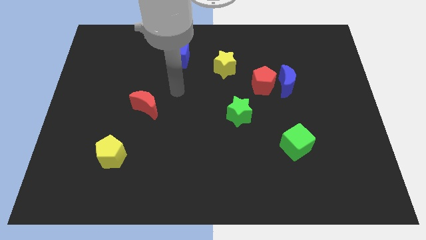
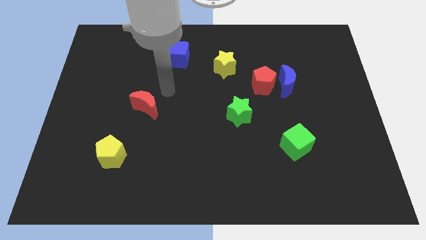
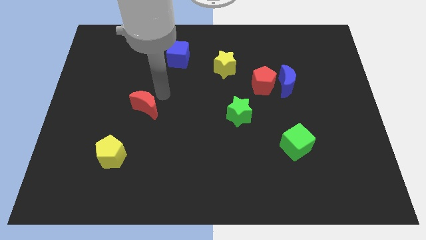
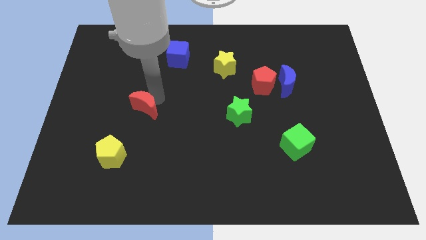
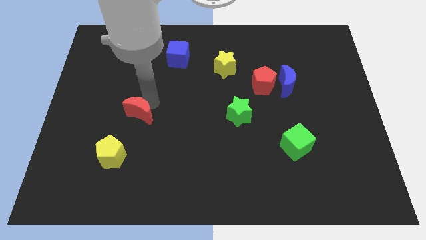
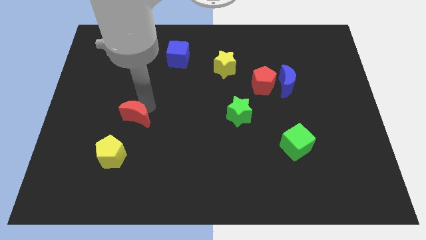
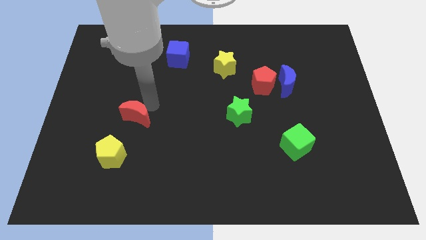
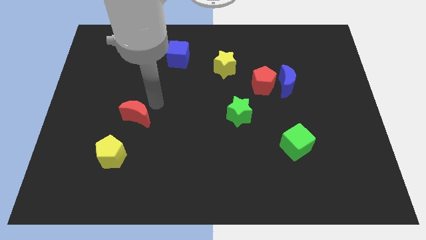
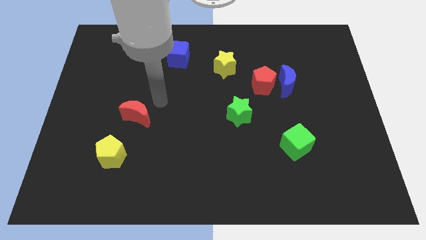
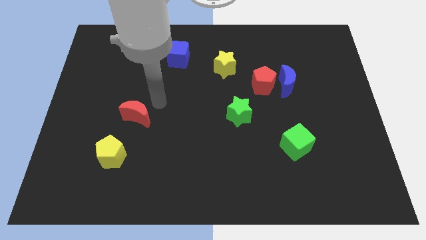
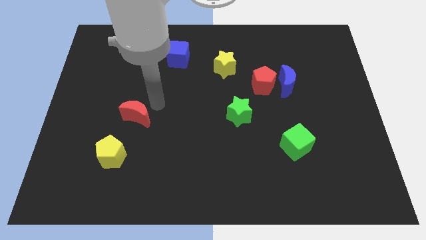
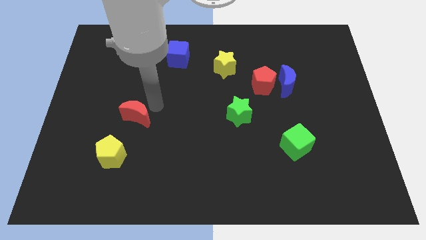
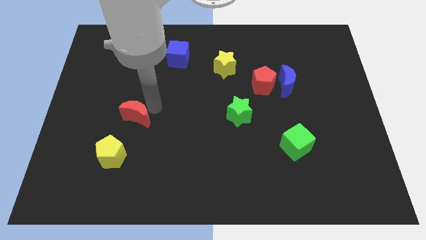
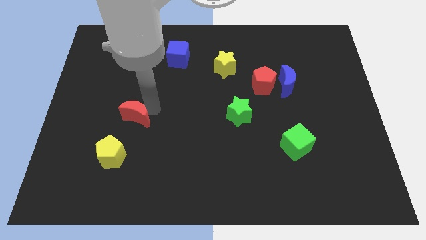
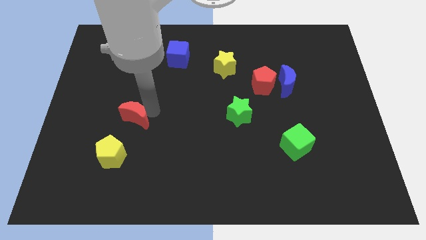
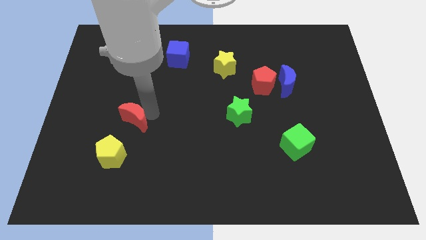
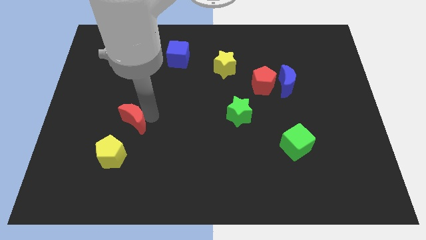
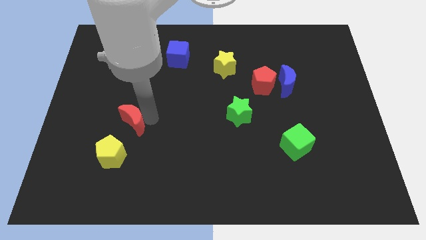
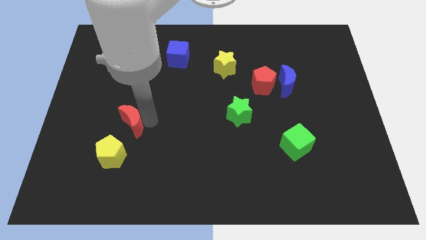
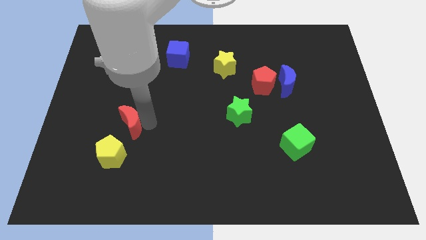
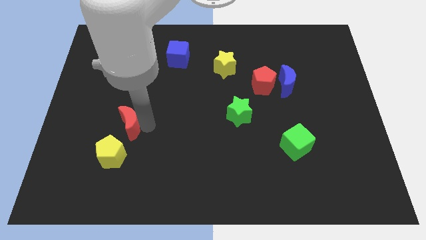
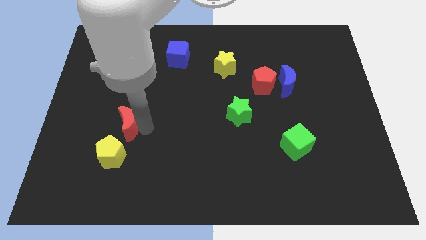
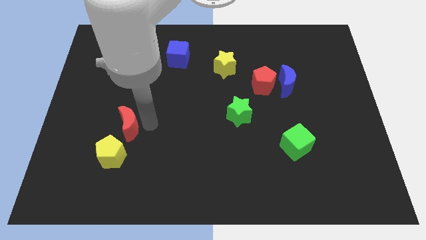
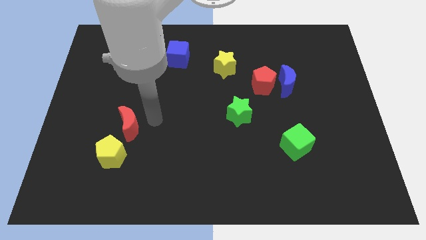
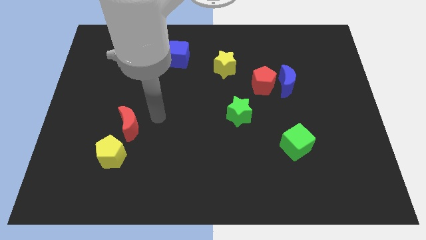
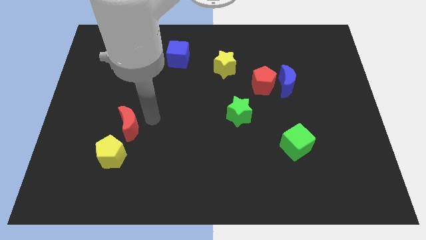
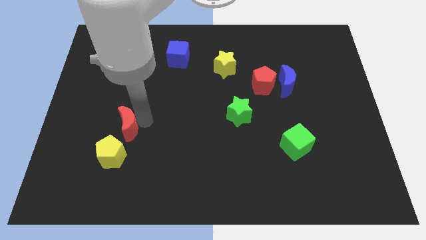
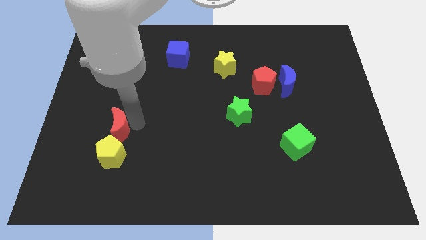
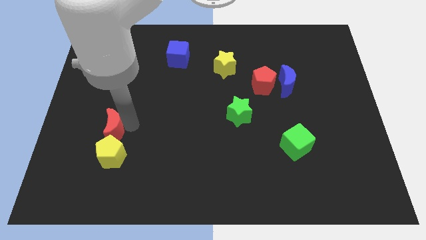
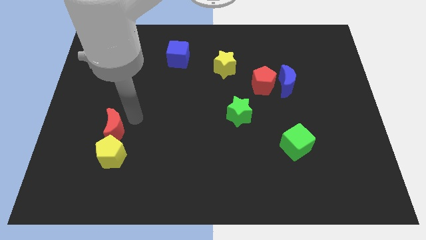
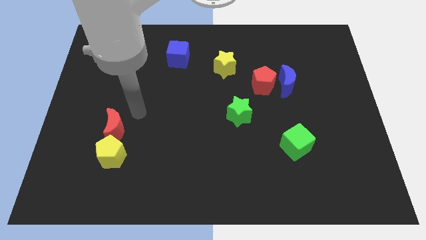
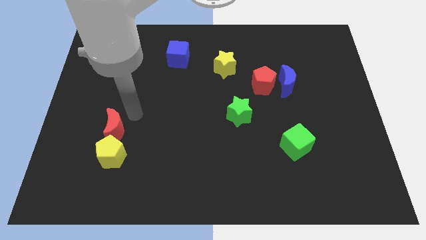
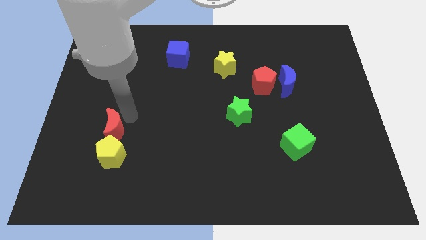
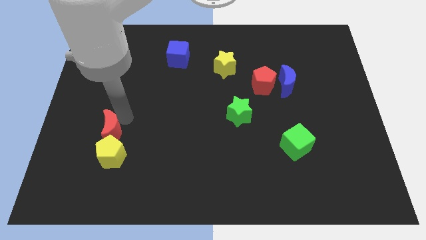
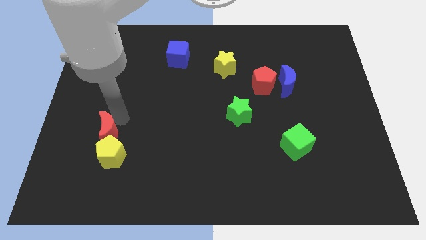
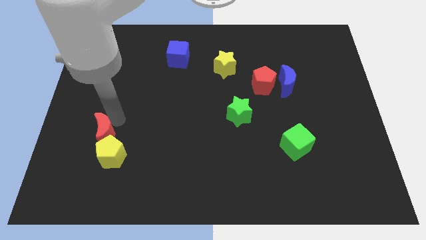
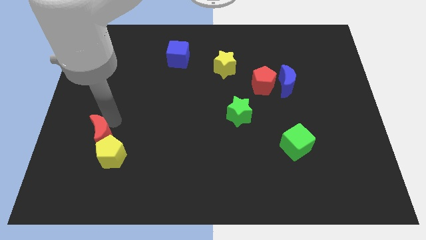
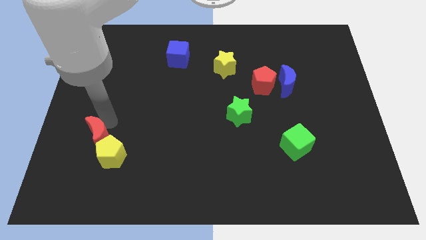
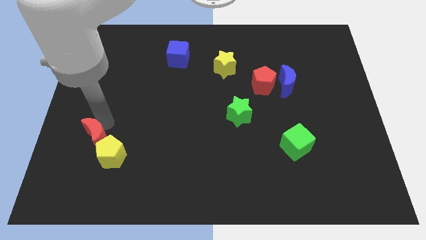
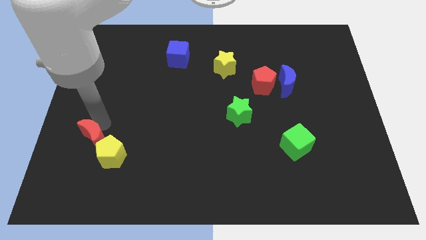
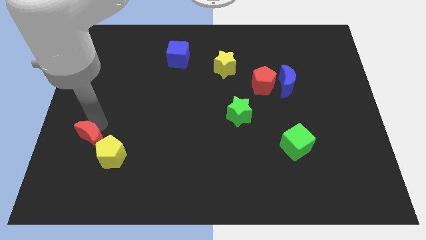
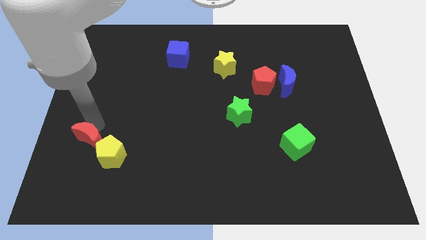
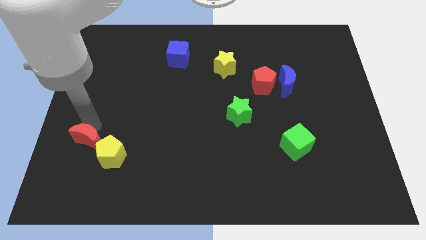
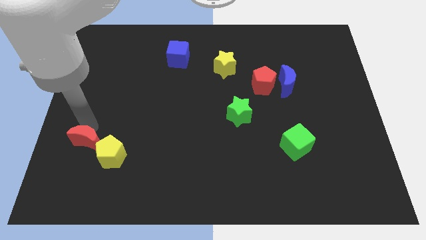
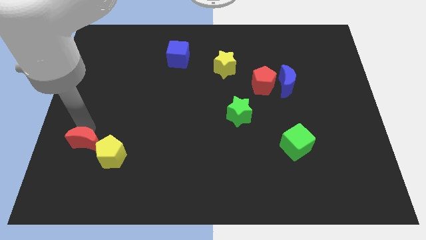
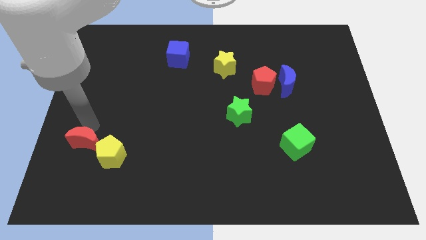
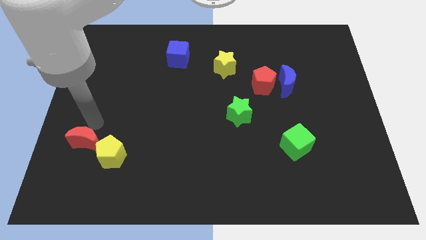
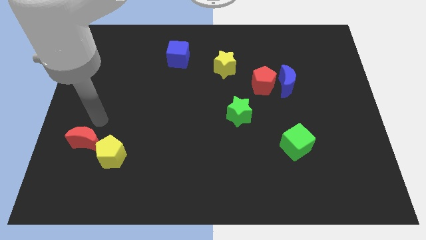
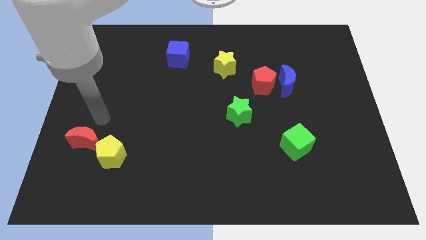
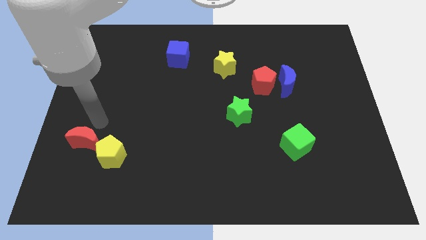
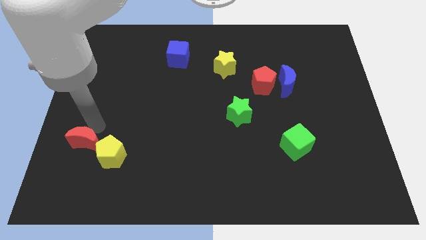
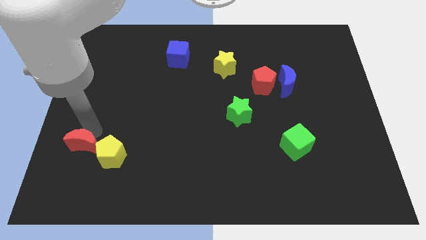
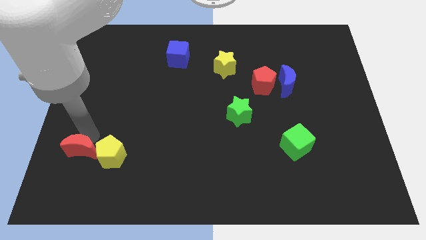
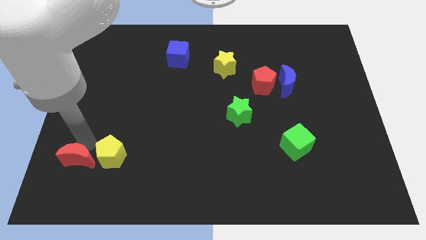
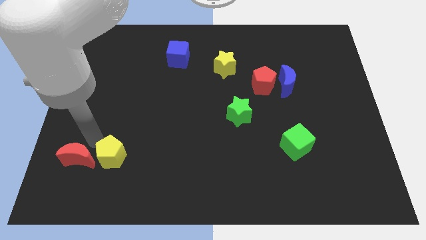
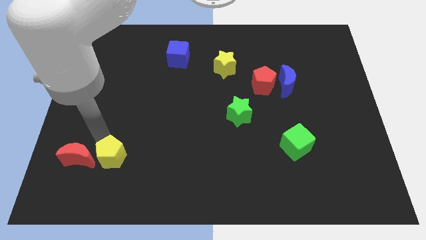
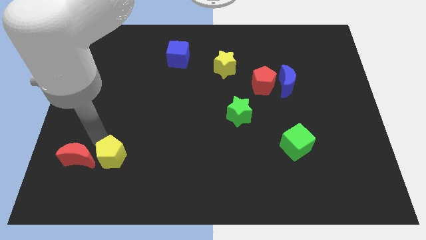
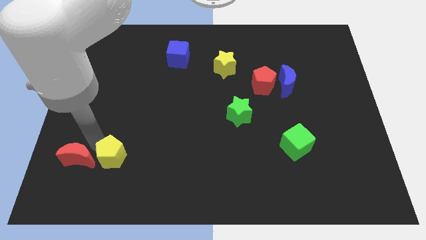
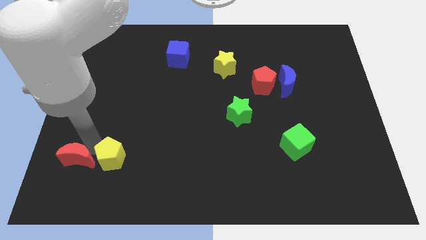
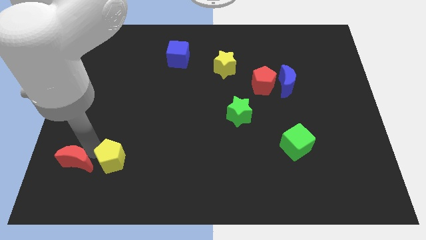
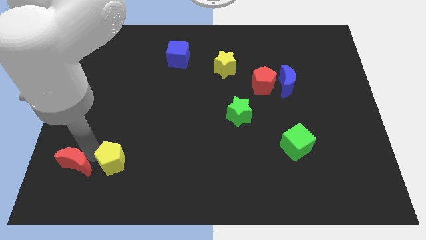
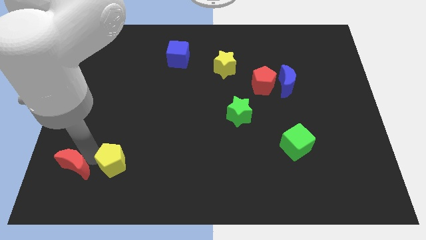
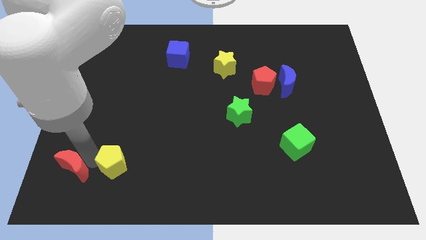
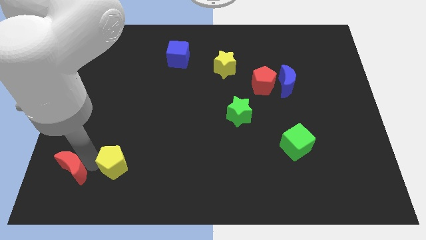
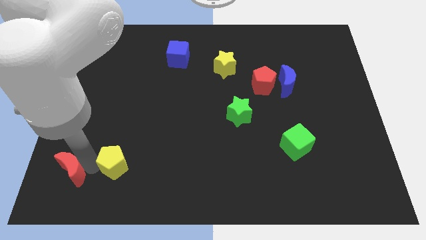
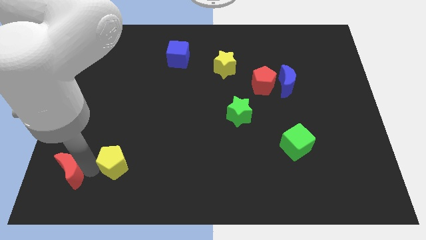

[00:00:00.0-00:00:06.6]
slide the red moon to the bottom left corner
